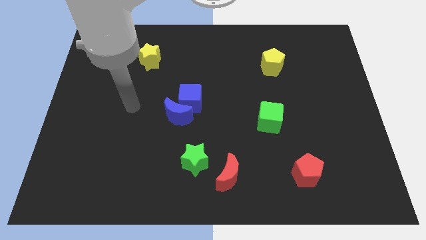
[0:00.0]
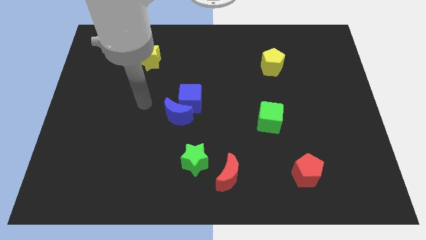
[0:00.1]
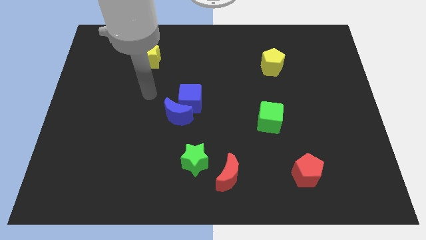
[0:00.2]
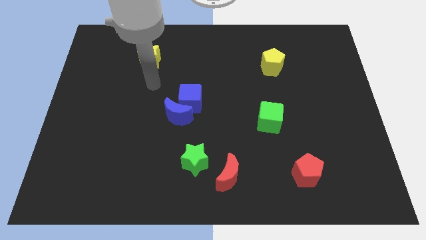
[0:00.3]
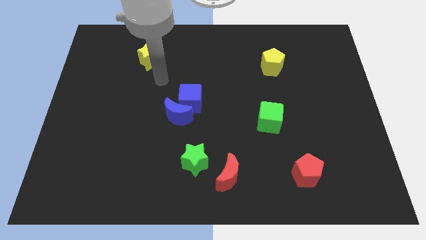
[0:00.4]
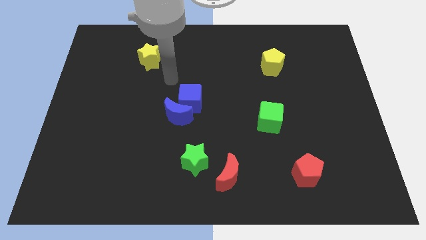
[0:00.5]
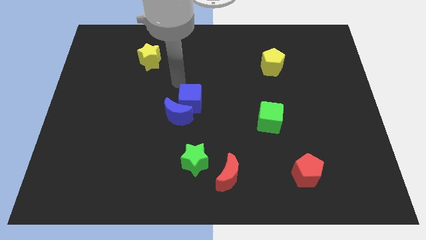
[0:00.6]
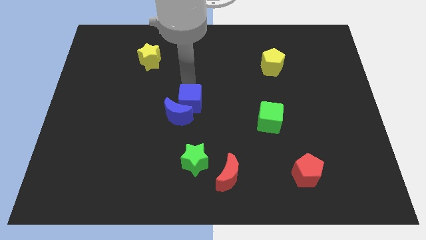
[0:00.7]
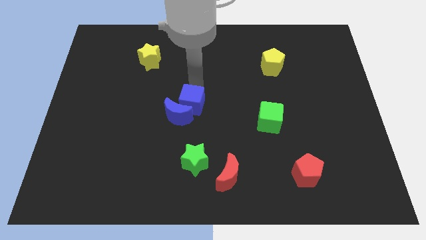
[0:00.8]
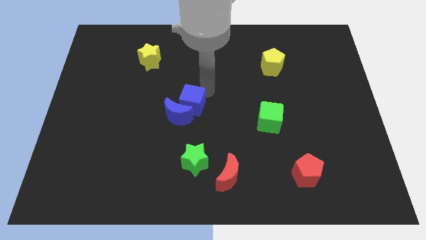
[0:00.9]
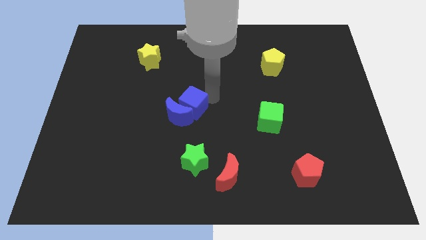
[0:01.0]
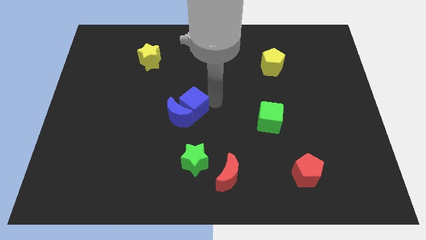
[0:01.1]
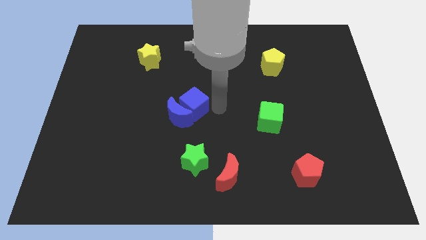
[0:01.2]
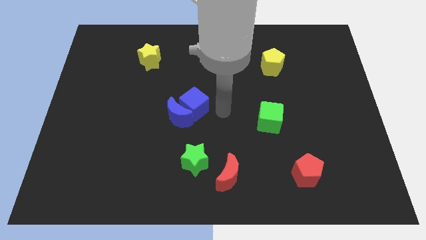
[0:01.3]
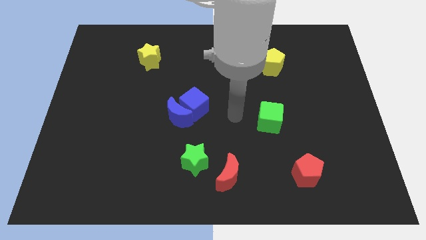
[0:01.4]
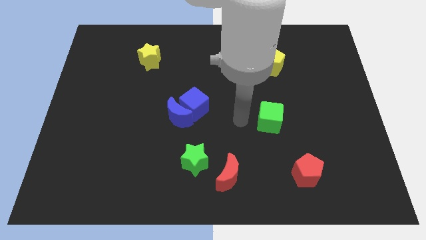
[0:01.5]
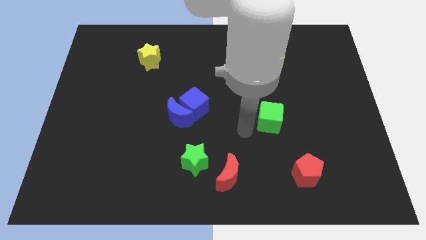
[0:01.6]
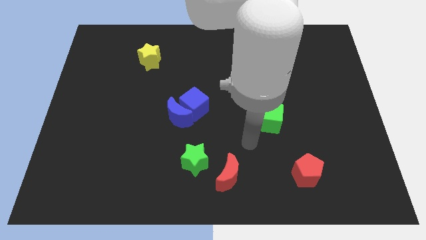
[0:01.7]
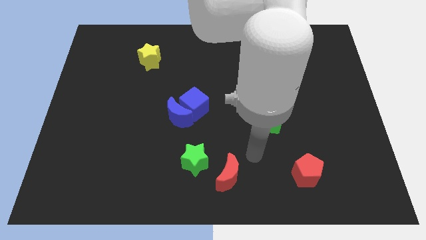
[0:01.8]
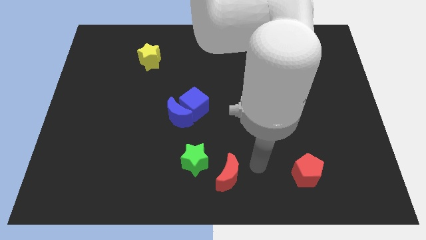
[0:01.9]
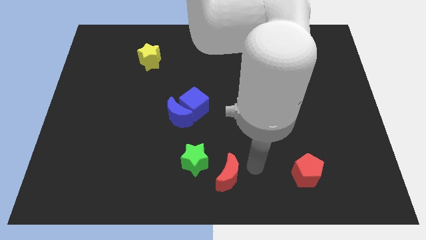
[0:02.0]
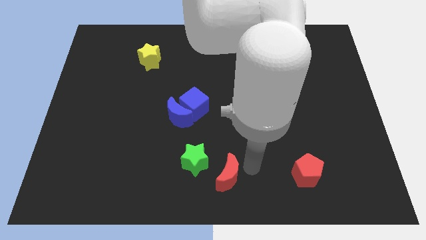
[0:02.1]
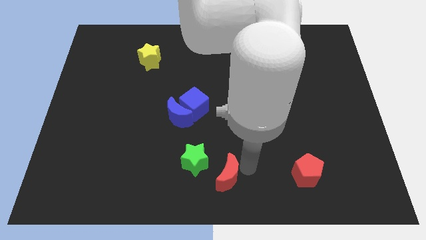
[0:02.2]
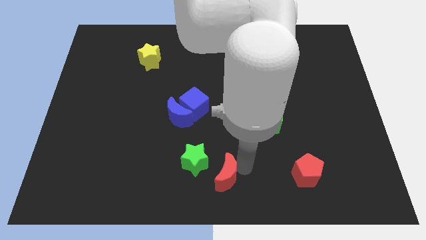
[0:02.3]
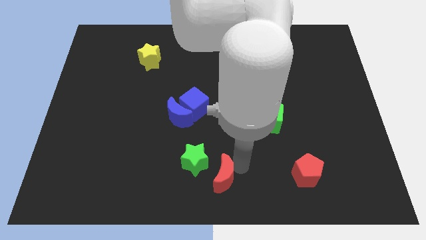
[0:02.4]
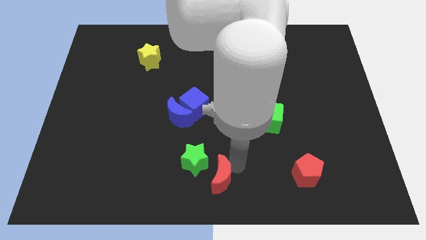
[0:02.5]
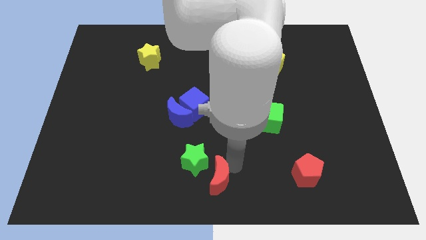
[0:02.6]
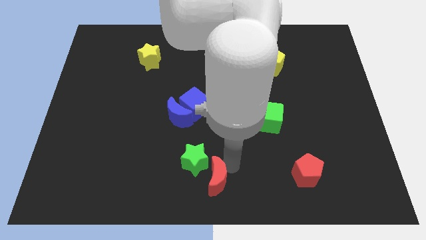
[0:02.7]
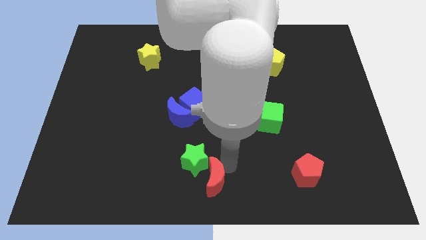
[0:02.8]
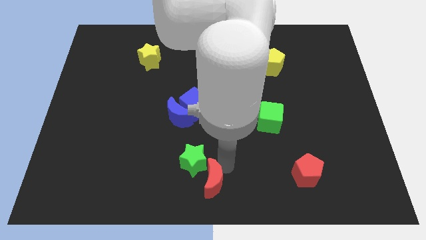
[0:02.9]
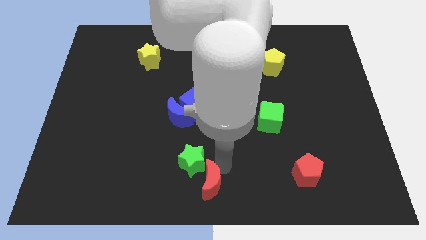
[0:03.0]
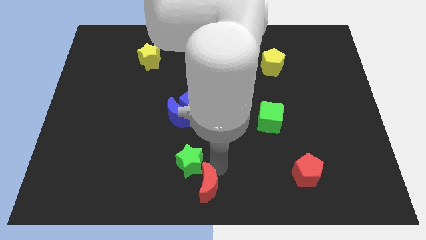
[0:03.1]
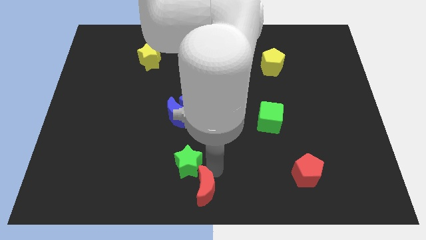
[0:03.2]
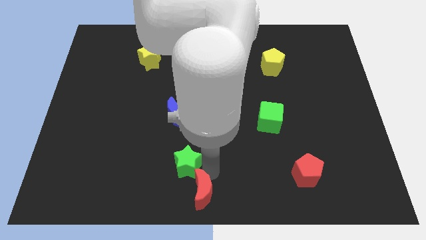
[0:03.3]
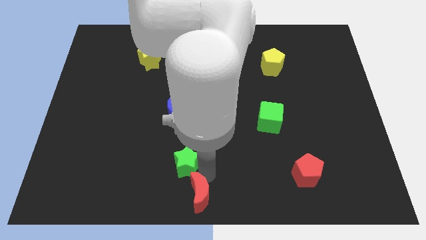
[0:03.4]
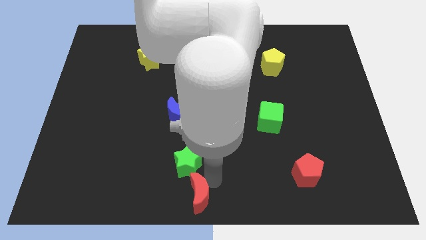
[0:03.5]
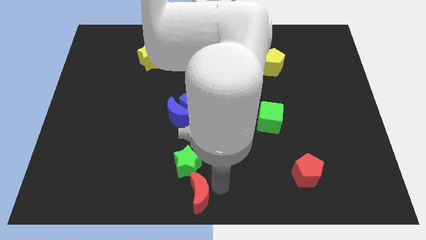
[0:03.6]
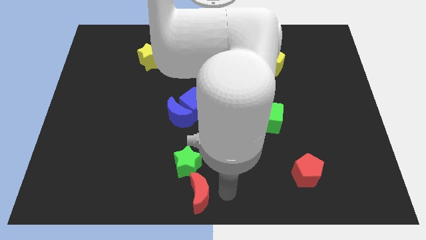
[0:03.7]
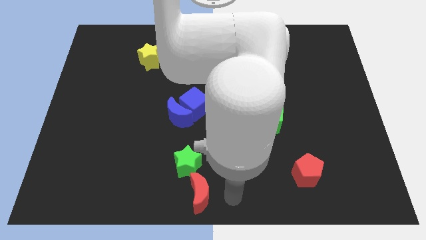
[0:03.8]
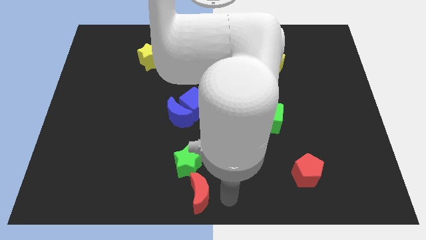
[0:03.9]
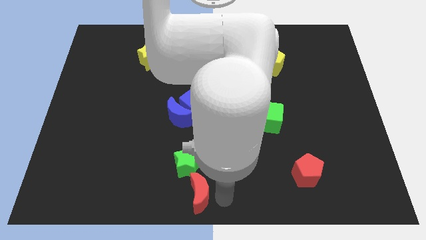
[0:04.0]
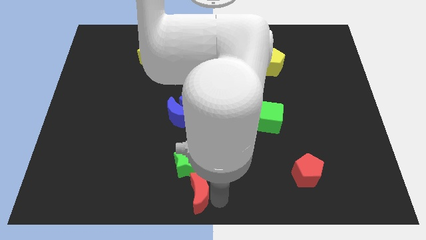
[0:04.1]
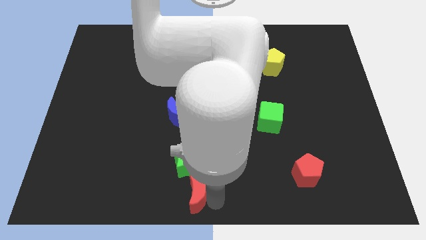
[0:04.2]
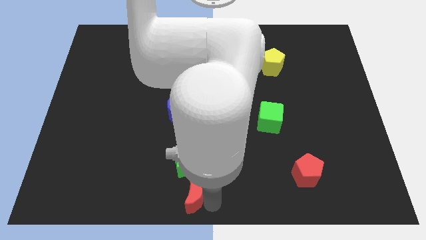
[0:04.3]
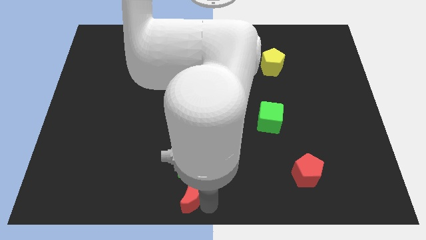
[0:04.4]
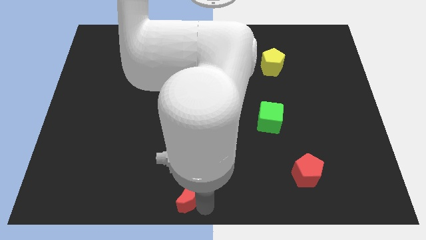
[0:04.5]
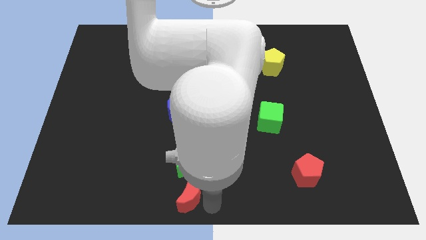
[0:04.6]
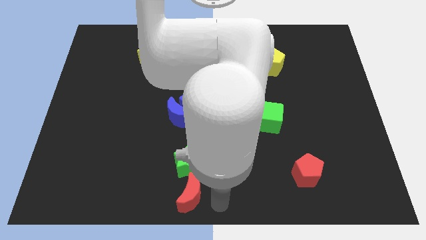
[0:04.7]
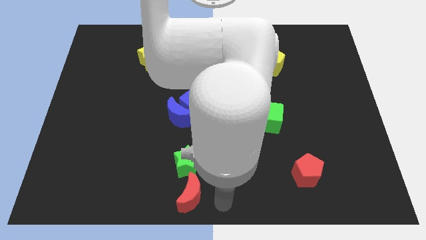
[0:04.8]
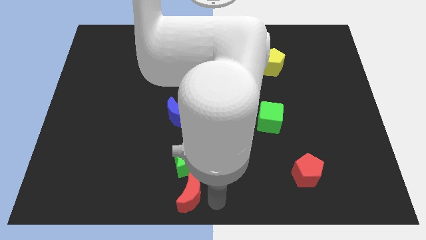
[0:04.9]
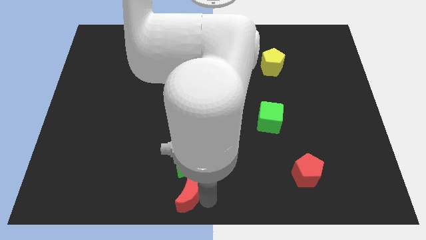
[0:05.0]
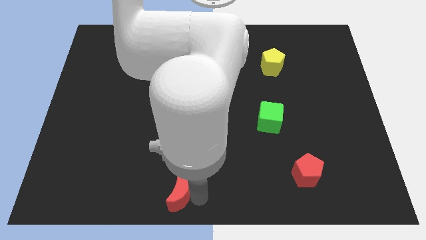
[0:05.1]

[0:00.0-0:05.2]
move the red moon diagonally down and to the left of the green star

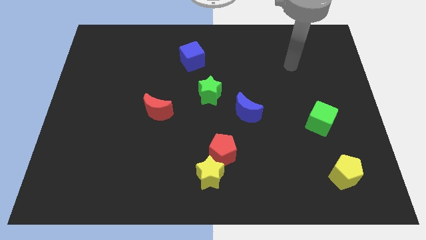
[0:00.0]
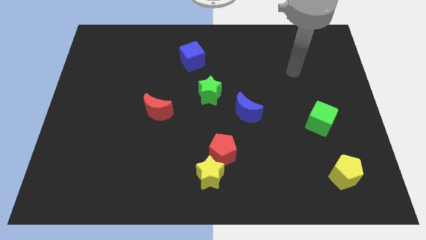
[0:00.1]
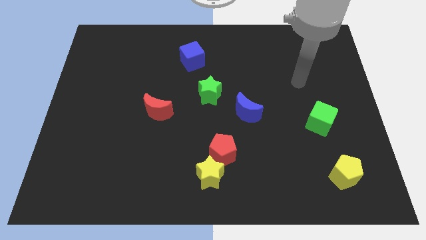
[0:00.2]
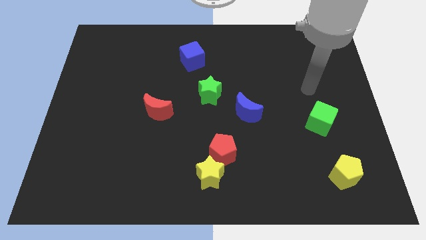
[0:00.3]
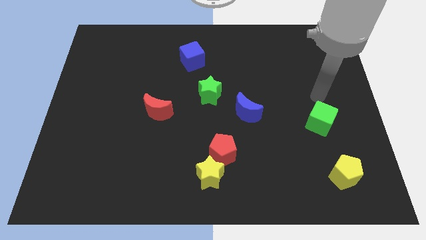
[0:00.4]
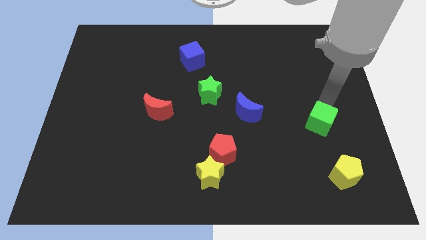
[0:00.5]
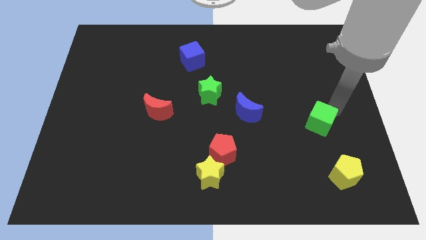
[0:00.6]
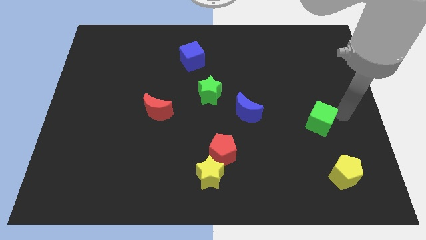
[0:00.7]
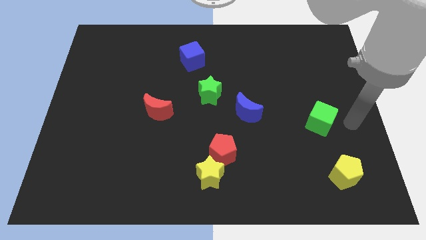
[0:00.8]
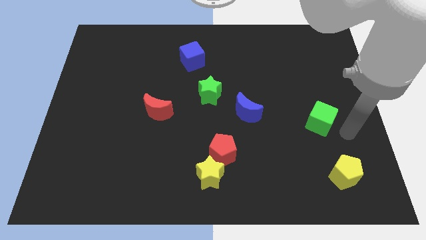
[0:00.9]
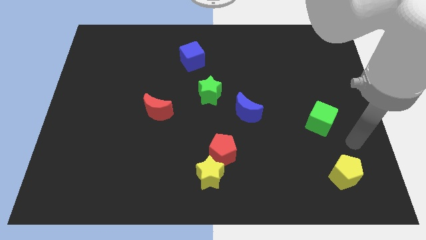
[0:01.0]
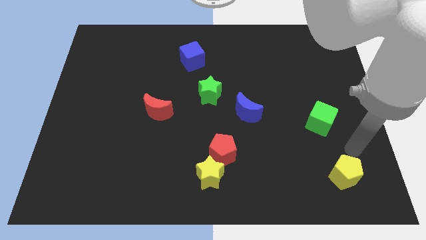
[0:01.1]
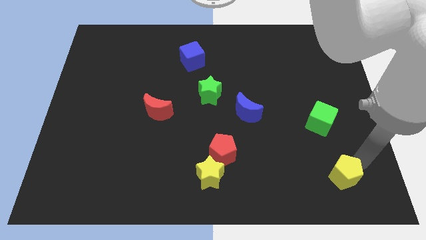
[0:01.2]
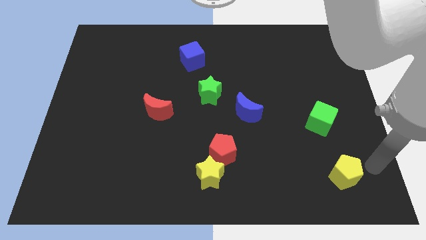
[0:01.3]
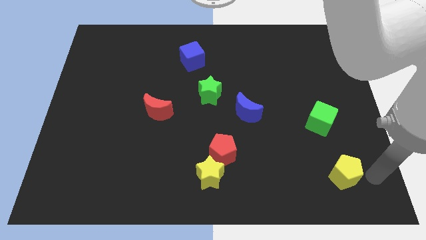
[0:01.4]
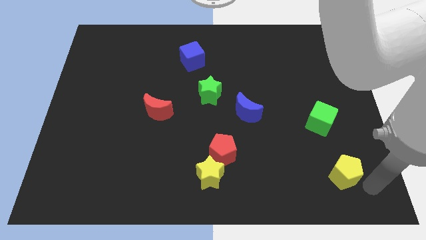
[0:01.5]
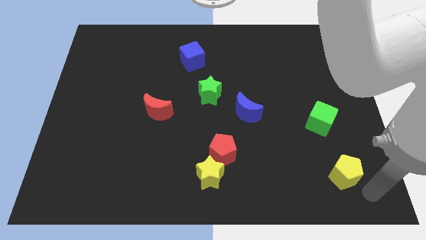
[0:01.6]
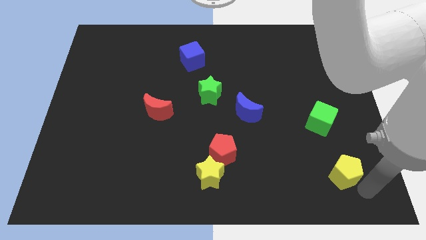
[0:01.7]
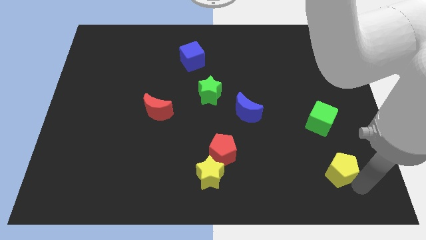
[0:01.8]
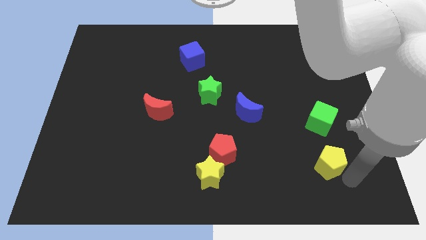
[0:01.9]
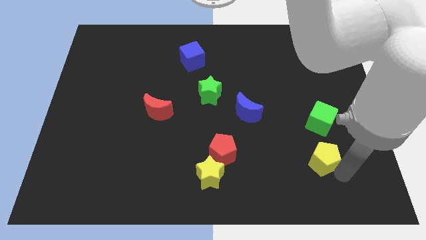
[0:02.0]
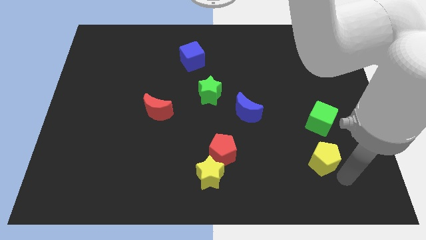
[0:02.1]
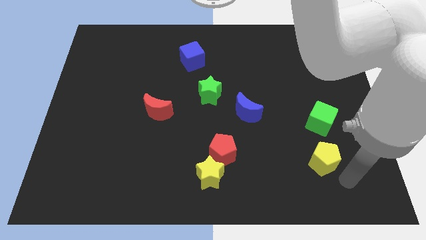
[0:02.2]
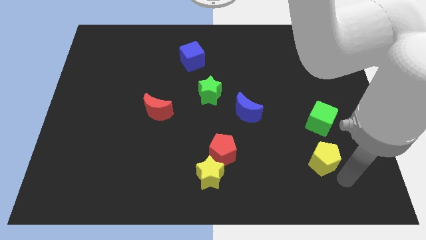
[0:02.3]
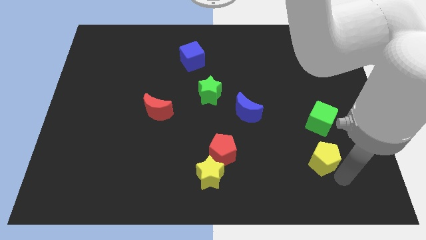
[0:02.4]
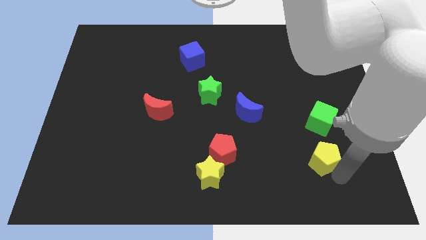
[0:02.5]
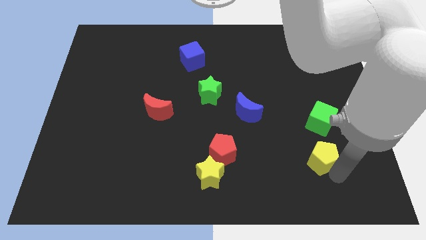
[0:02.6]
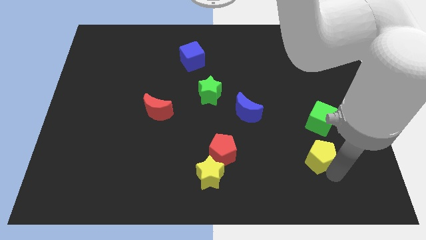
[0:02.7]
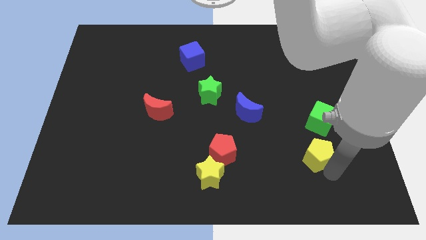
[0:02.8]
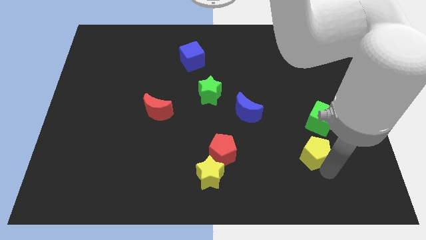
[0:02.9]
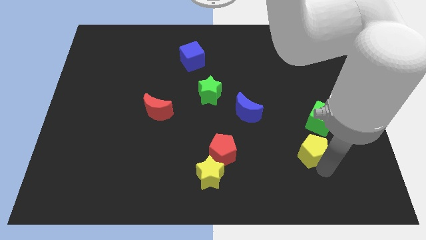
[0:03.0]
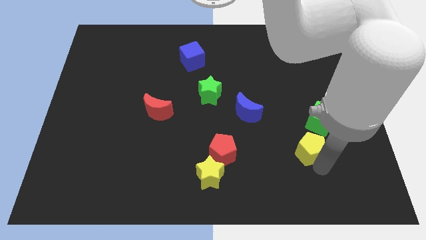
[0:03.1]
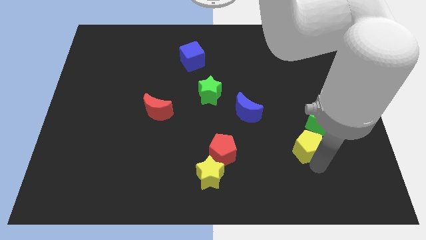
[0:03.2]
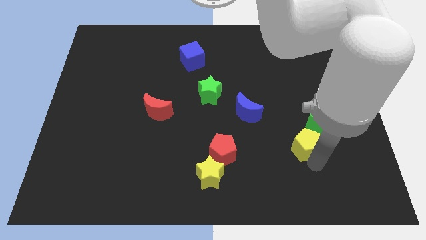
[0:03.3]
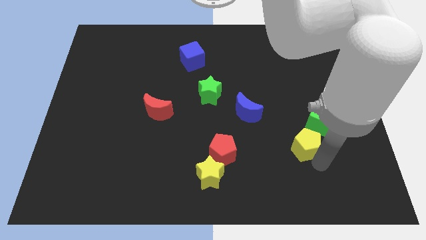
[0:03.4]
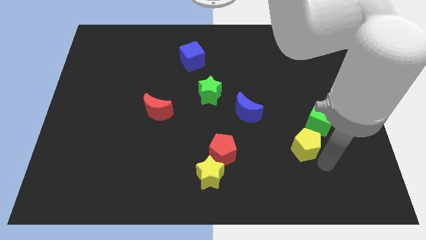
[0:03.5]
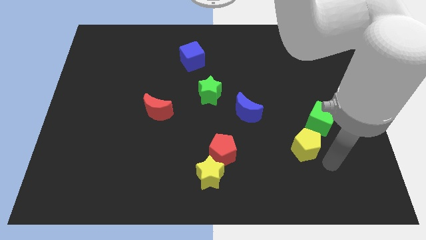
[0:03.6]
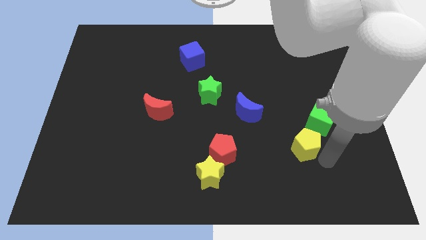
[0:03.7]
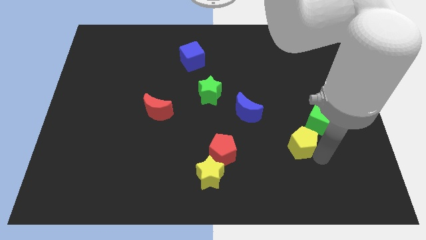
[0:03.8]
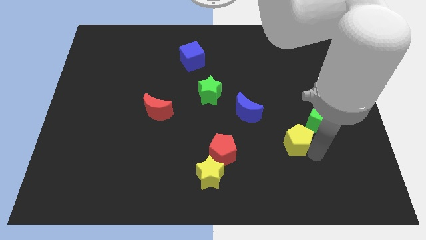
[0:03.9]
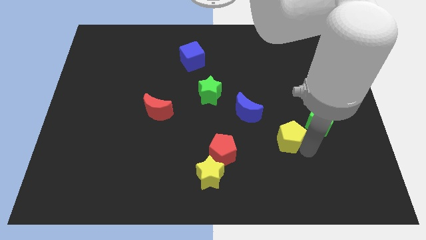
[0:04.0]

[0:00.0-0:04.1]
put the yellow pentagon to the left of the green cube
